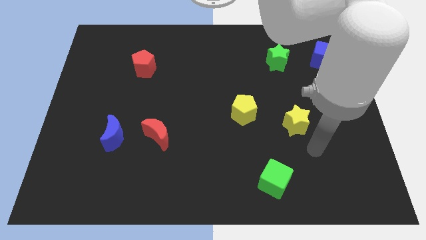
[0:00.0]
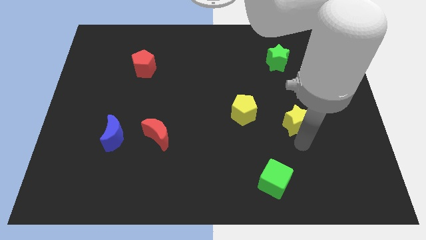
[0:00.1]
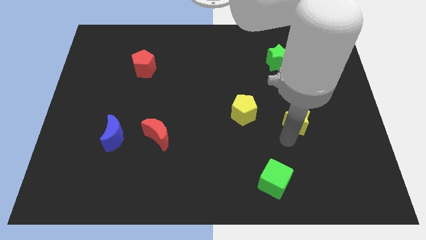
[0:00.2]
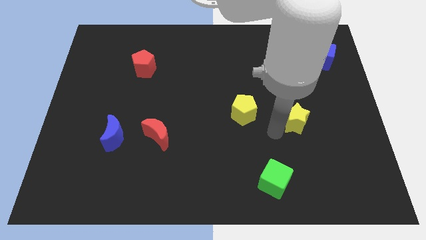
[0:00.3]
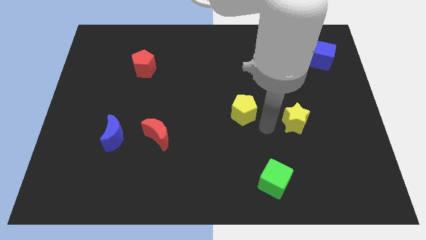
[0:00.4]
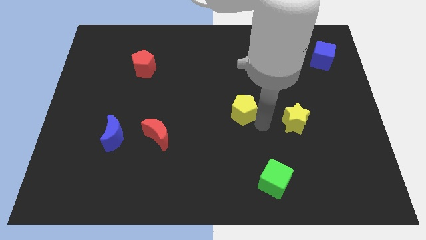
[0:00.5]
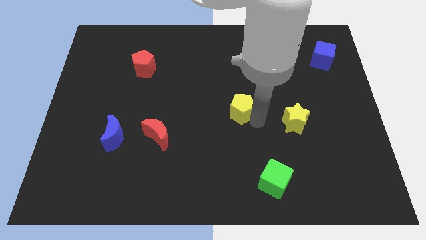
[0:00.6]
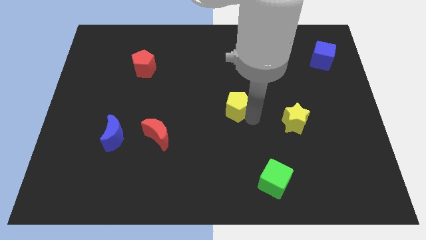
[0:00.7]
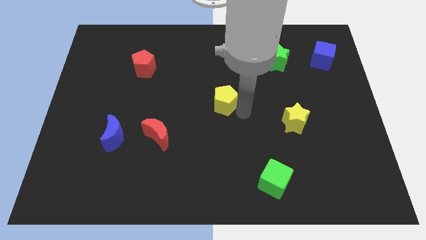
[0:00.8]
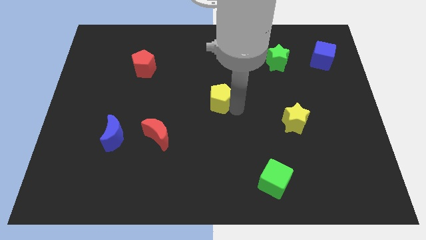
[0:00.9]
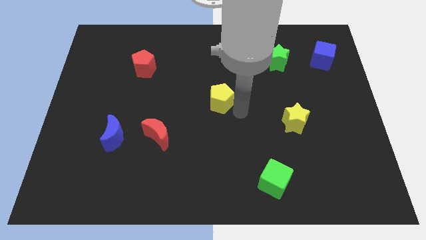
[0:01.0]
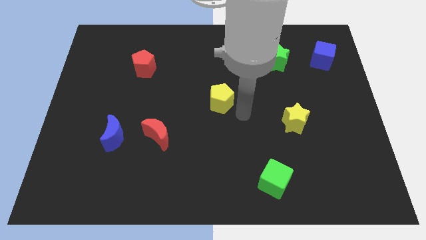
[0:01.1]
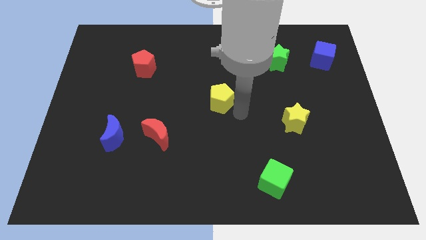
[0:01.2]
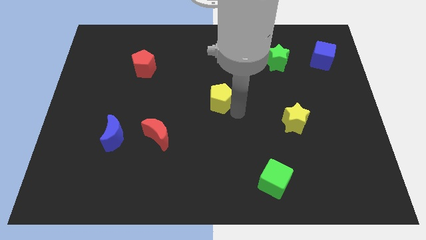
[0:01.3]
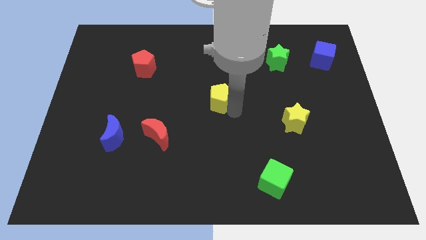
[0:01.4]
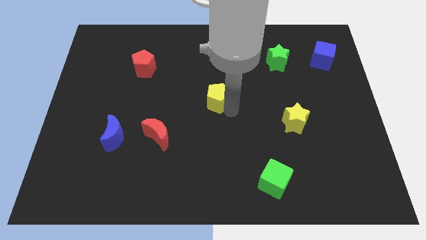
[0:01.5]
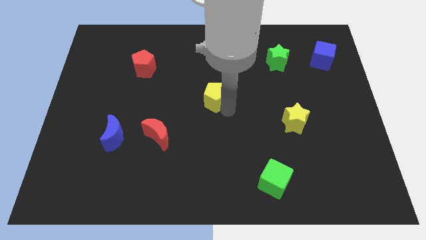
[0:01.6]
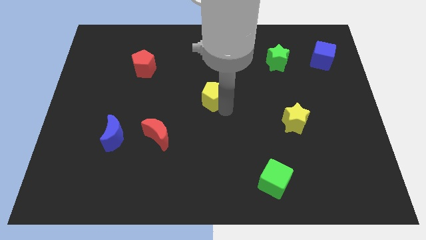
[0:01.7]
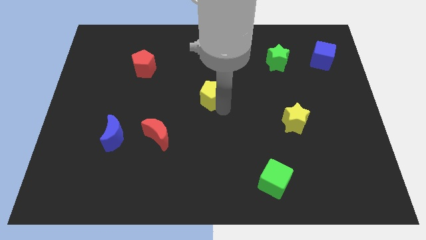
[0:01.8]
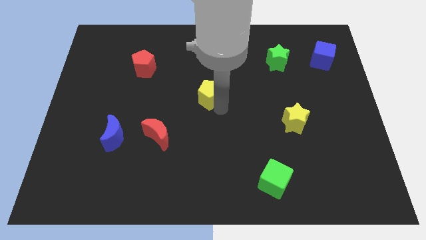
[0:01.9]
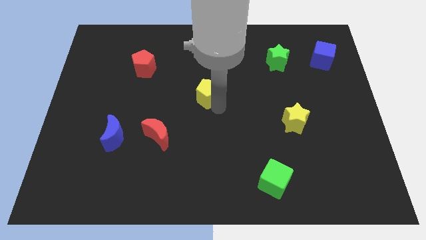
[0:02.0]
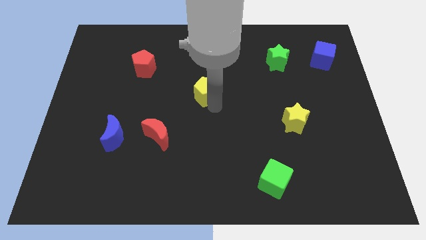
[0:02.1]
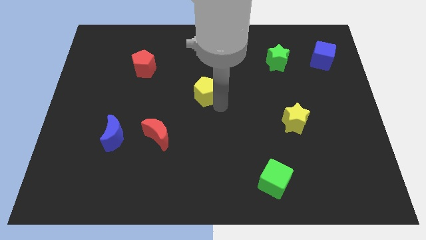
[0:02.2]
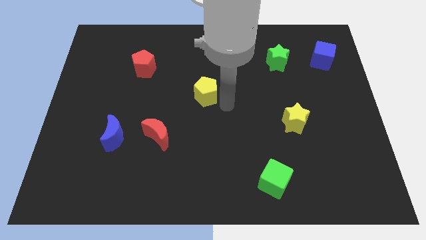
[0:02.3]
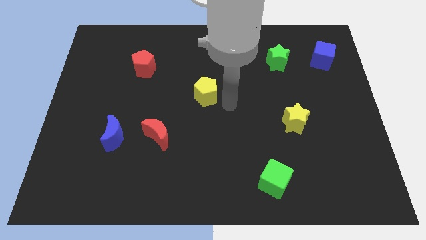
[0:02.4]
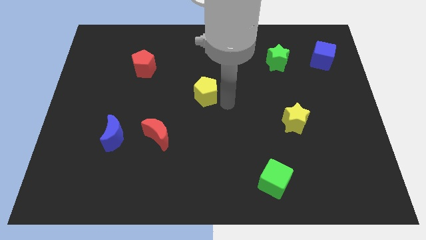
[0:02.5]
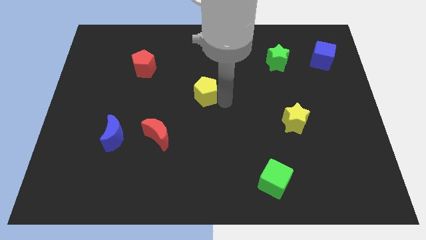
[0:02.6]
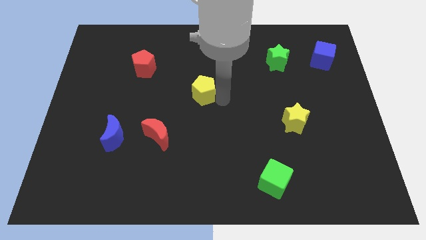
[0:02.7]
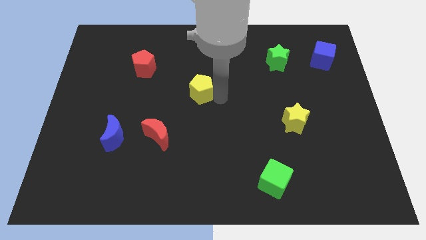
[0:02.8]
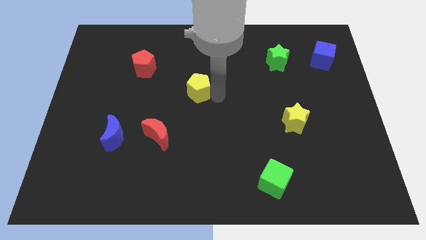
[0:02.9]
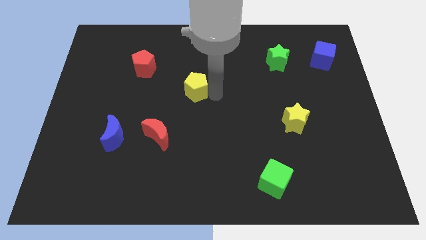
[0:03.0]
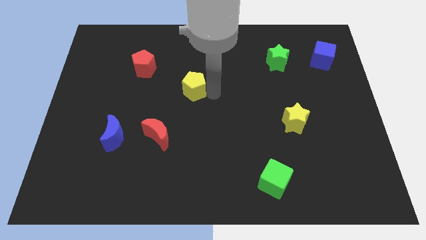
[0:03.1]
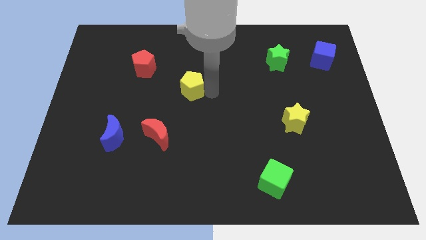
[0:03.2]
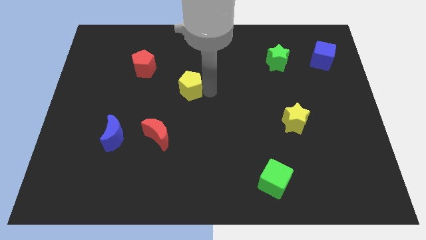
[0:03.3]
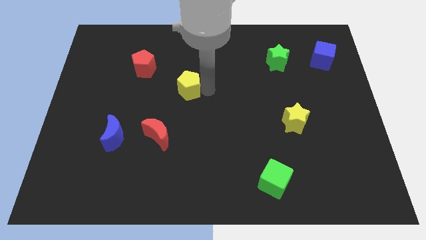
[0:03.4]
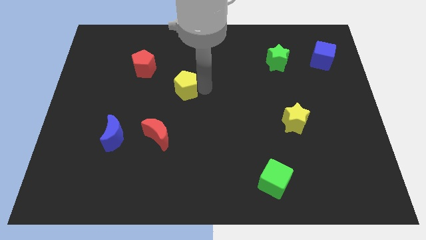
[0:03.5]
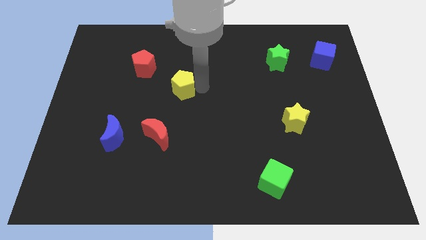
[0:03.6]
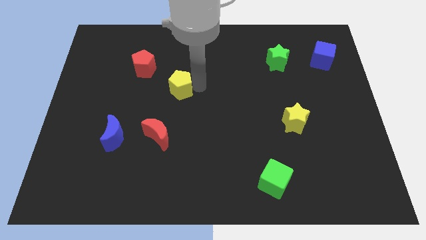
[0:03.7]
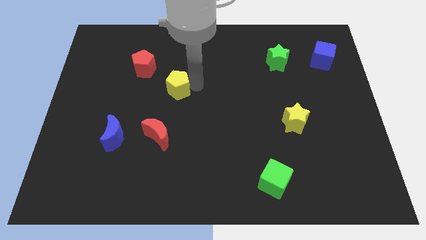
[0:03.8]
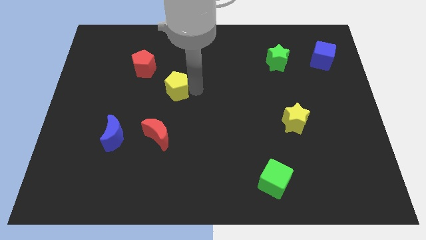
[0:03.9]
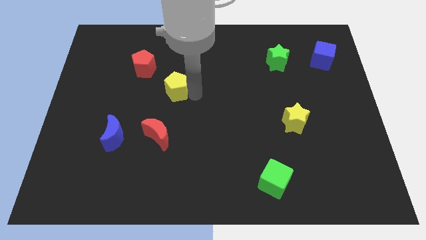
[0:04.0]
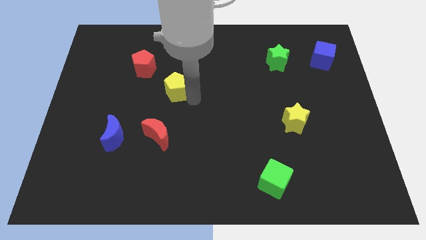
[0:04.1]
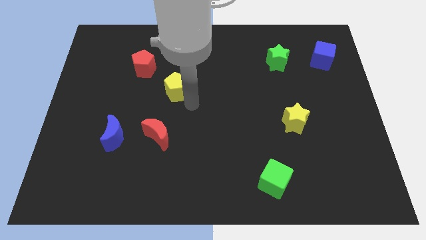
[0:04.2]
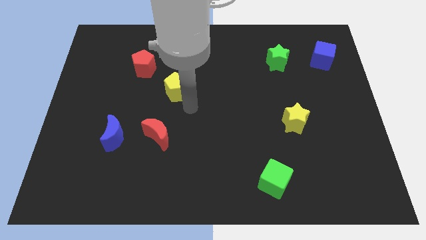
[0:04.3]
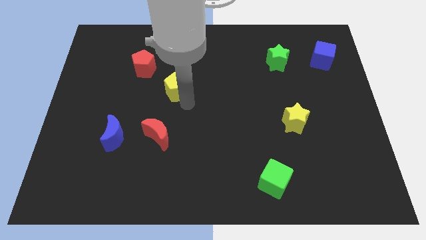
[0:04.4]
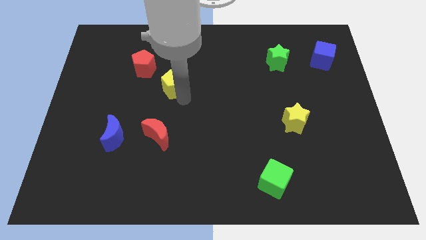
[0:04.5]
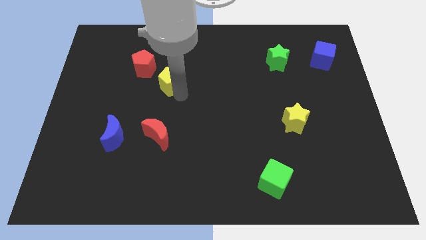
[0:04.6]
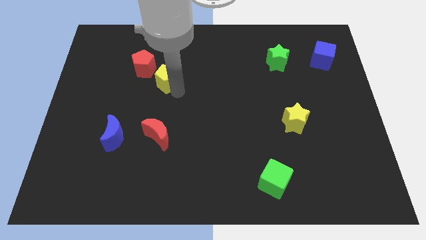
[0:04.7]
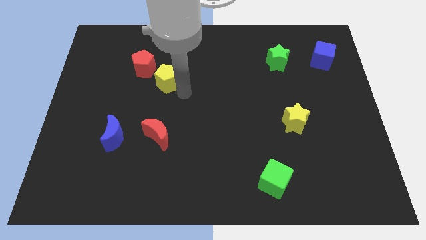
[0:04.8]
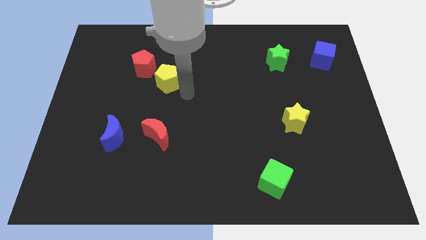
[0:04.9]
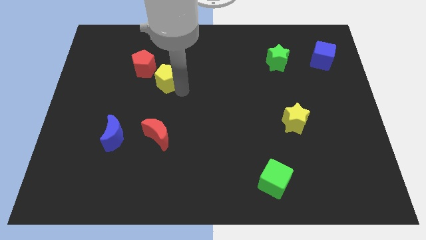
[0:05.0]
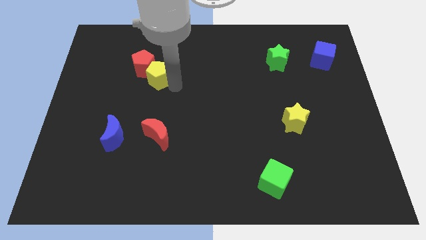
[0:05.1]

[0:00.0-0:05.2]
push the yellow pentagon next to the red pentagon

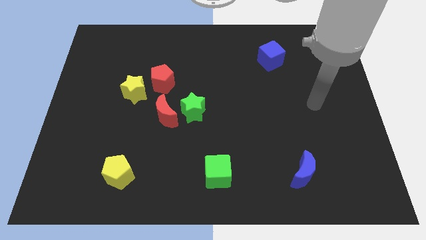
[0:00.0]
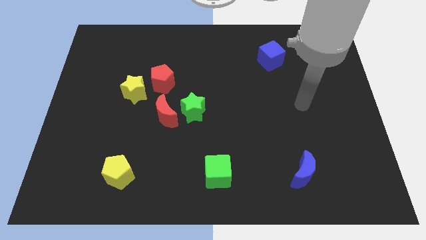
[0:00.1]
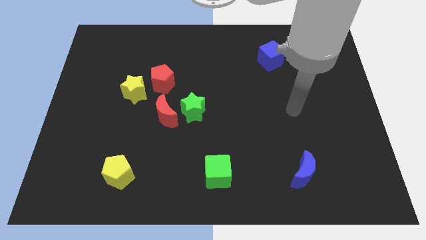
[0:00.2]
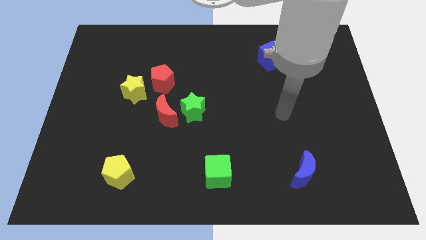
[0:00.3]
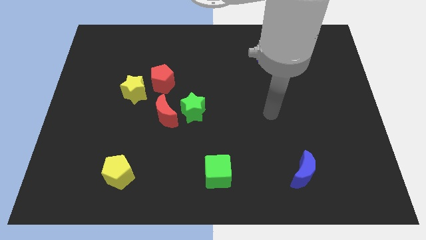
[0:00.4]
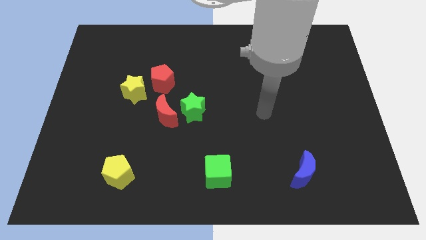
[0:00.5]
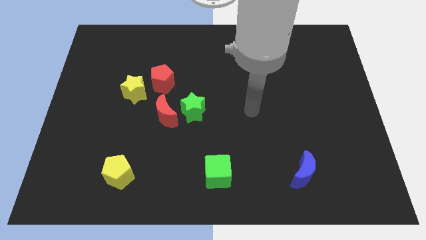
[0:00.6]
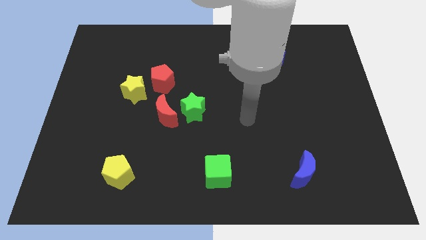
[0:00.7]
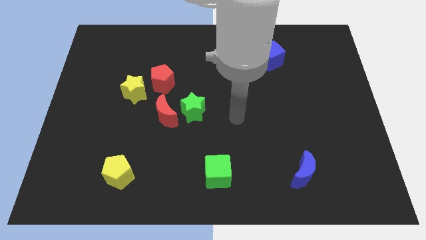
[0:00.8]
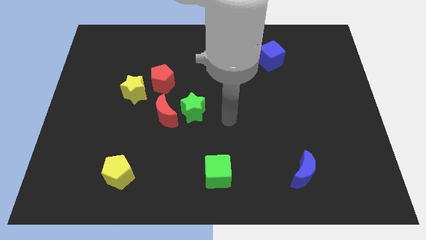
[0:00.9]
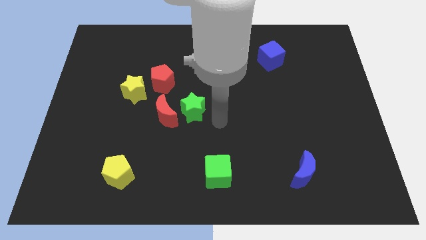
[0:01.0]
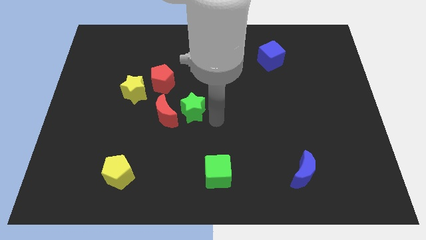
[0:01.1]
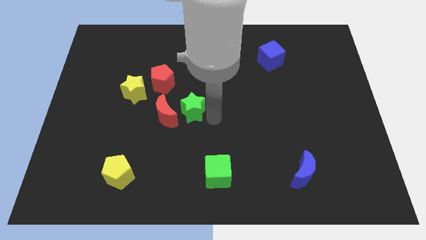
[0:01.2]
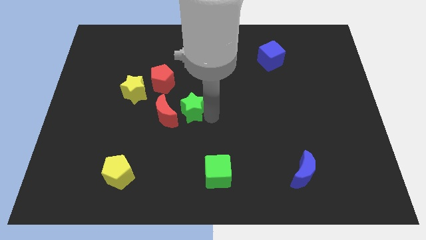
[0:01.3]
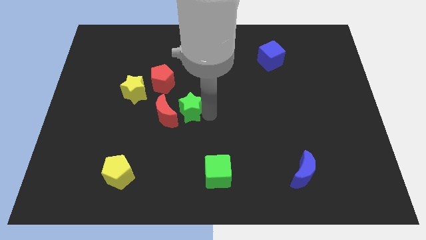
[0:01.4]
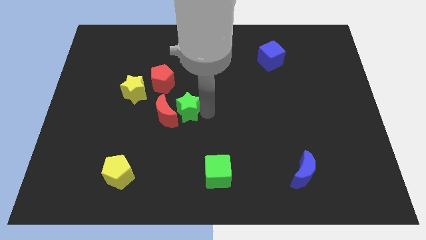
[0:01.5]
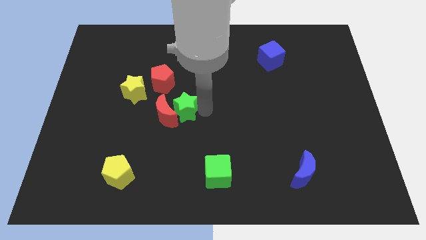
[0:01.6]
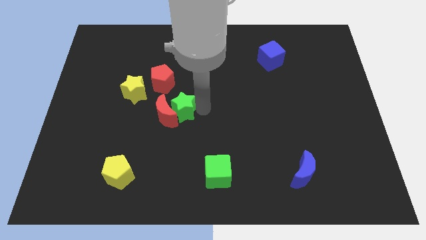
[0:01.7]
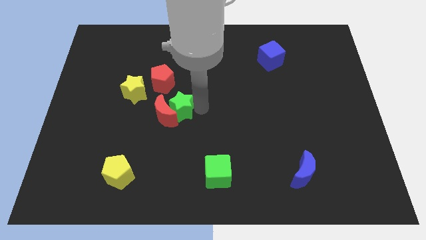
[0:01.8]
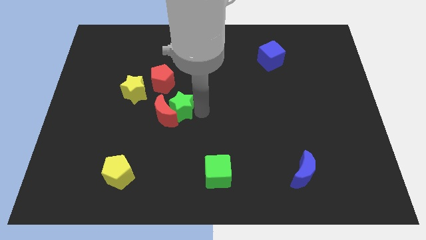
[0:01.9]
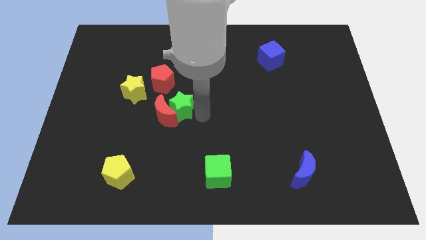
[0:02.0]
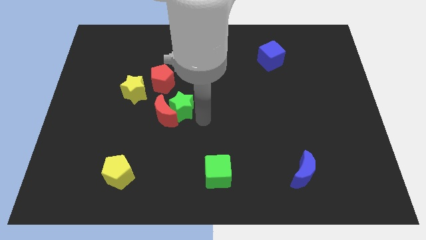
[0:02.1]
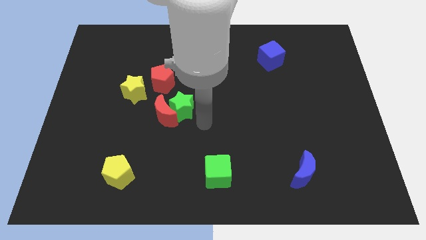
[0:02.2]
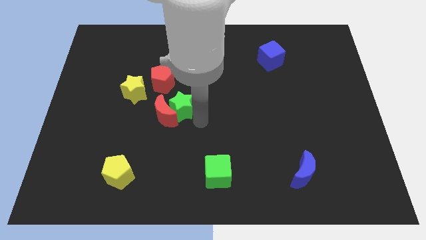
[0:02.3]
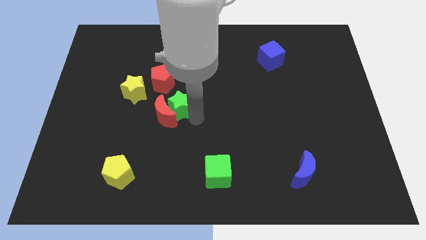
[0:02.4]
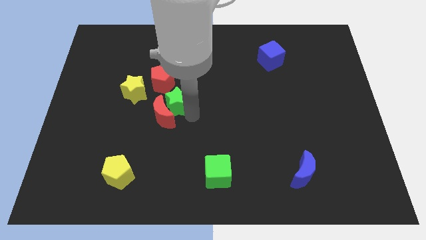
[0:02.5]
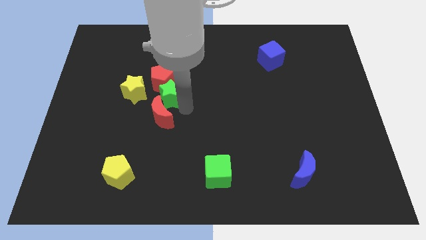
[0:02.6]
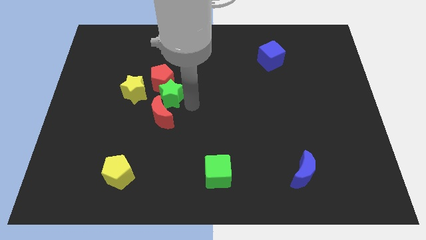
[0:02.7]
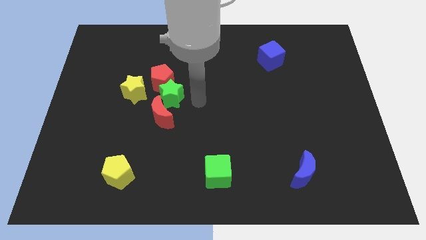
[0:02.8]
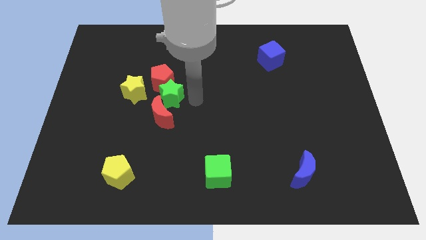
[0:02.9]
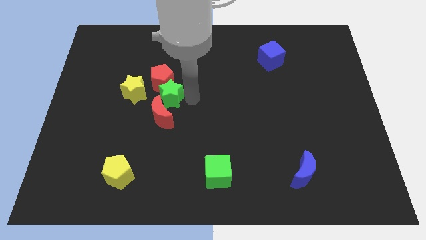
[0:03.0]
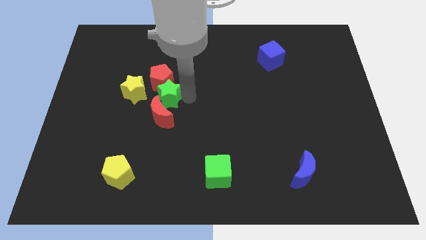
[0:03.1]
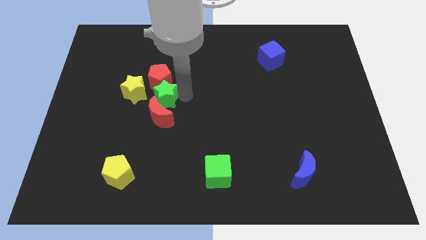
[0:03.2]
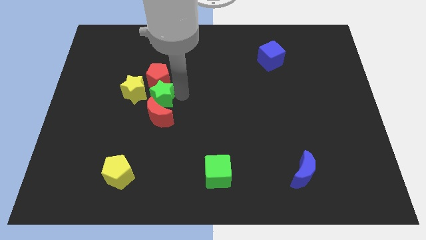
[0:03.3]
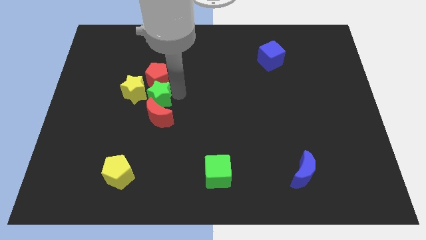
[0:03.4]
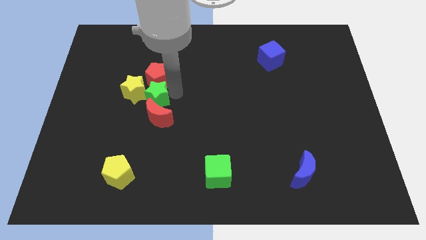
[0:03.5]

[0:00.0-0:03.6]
slide the green star towards the yellow star
